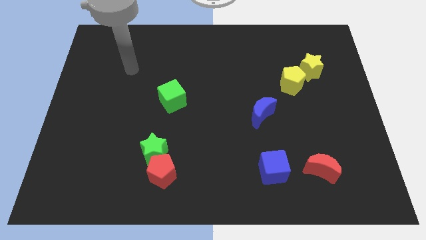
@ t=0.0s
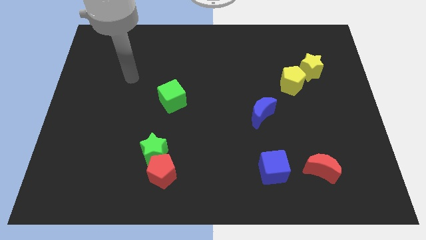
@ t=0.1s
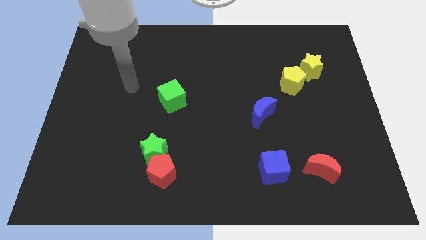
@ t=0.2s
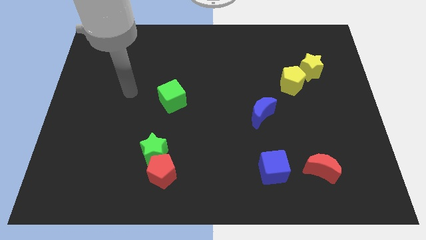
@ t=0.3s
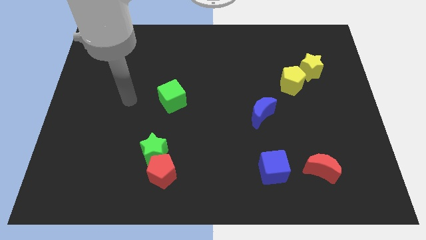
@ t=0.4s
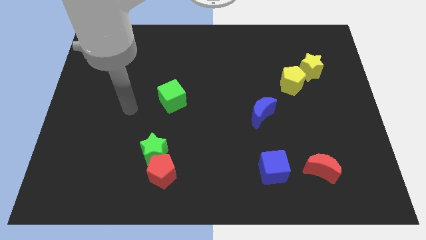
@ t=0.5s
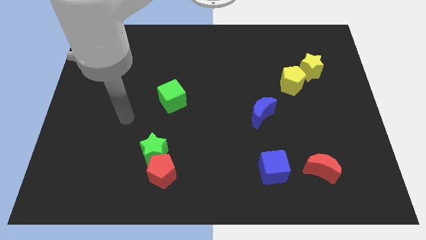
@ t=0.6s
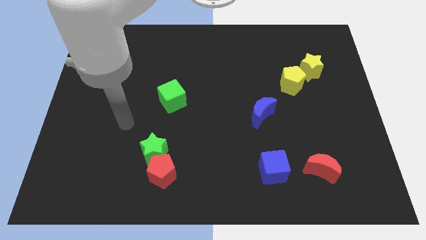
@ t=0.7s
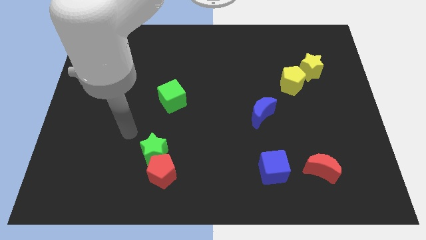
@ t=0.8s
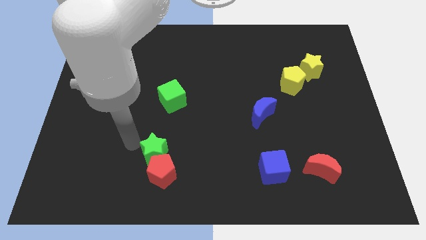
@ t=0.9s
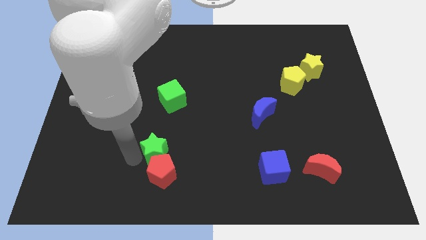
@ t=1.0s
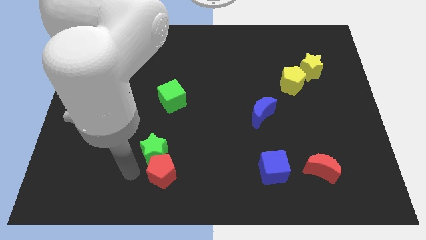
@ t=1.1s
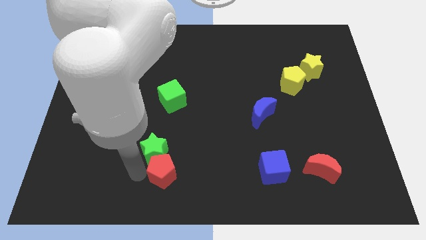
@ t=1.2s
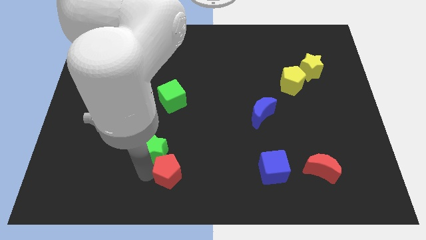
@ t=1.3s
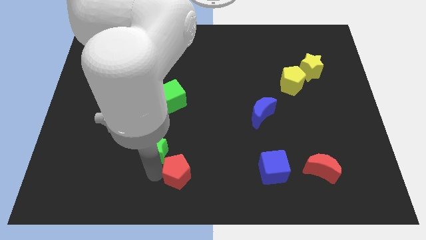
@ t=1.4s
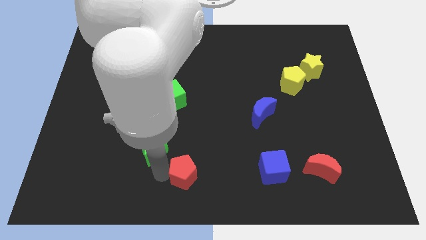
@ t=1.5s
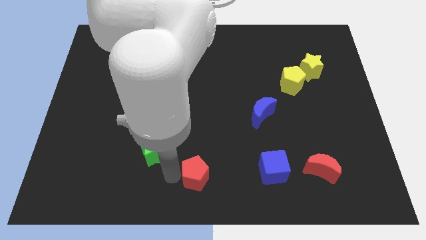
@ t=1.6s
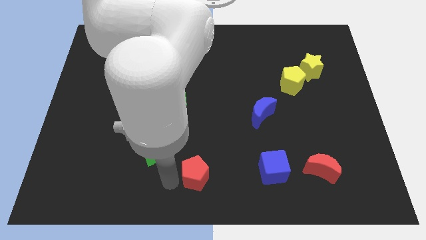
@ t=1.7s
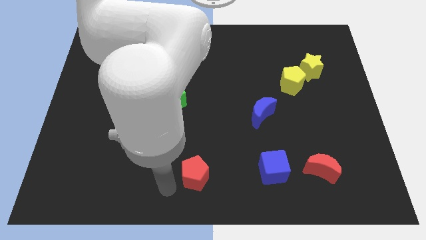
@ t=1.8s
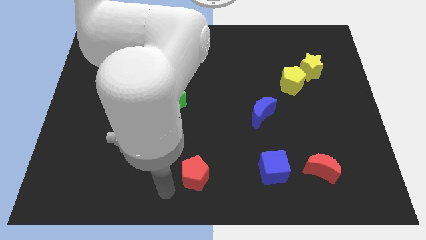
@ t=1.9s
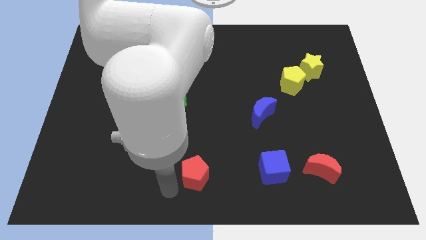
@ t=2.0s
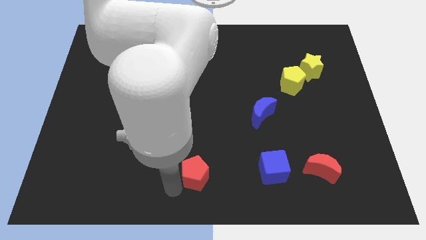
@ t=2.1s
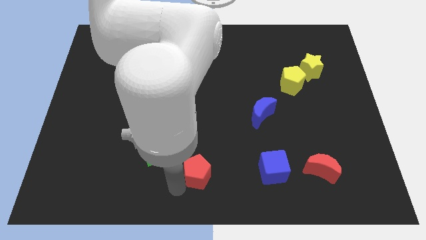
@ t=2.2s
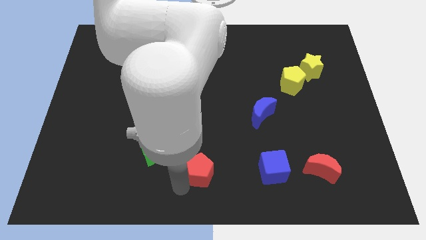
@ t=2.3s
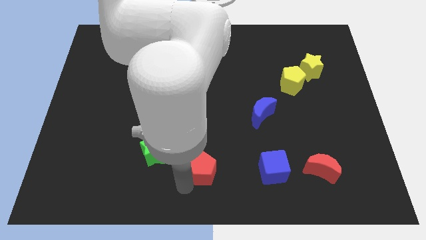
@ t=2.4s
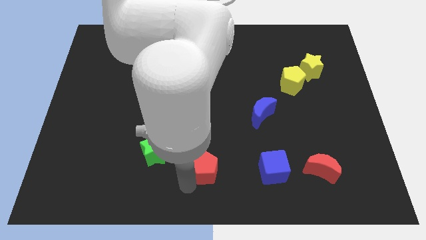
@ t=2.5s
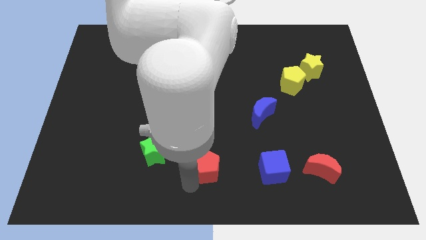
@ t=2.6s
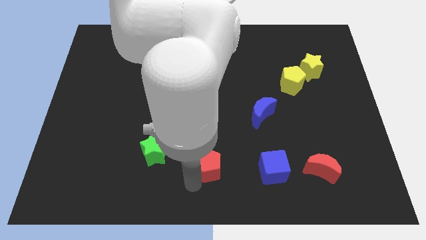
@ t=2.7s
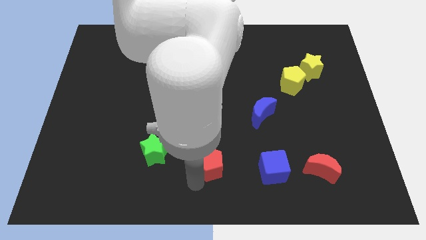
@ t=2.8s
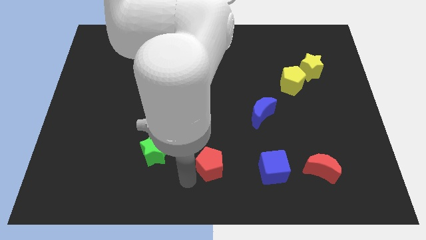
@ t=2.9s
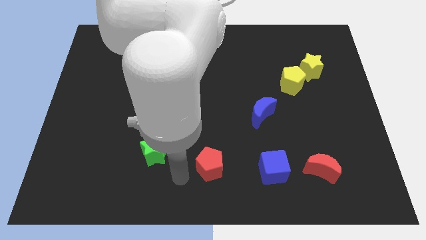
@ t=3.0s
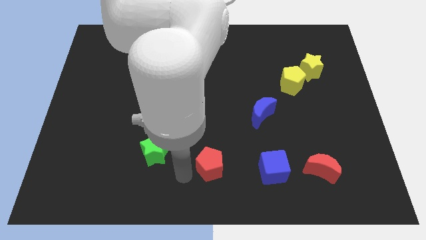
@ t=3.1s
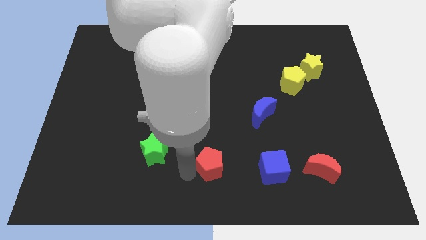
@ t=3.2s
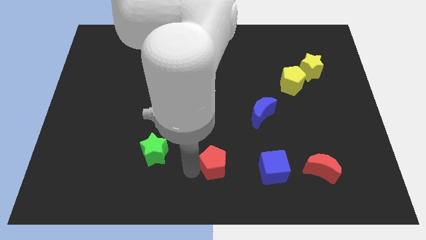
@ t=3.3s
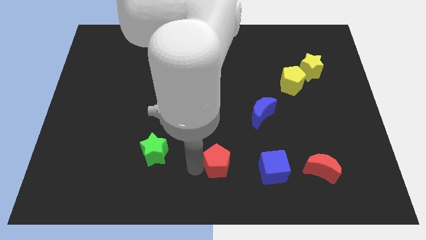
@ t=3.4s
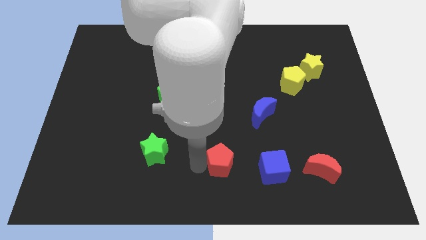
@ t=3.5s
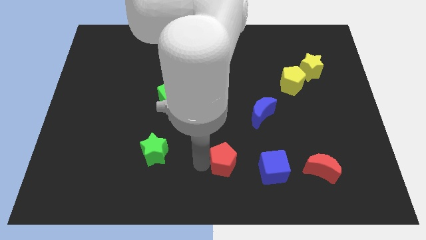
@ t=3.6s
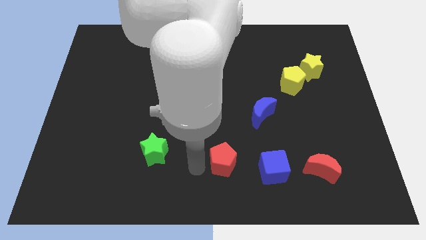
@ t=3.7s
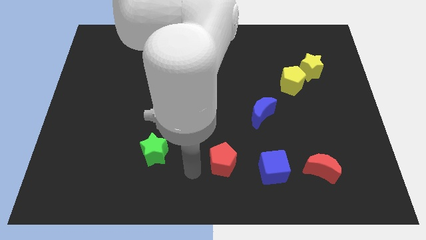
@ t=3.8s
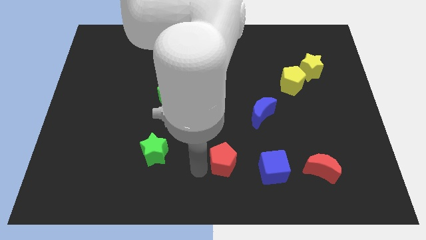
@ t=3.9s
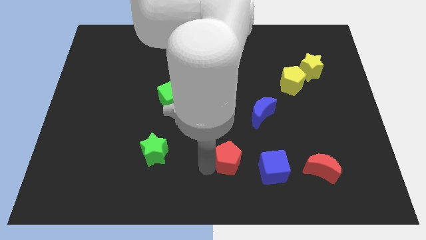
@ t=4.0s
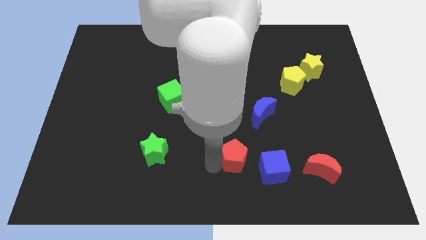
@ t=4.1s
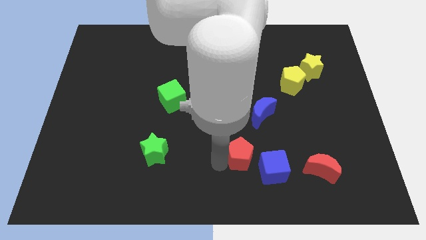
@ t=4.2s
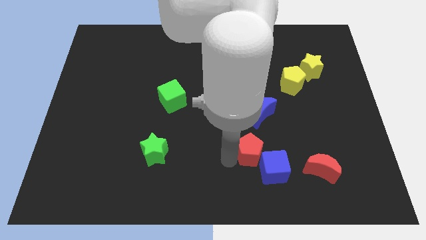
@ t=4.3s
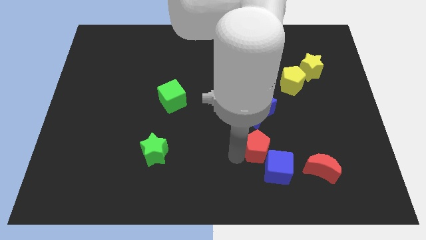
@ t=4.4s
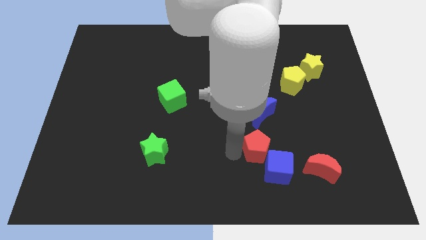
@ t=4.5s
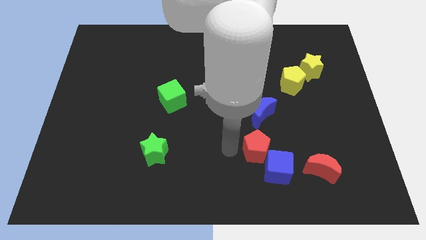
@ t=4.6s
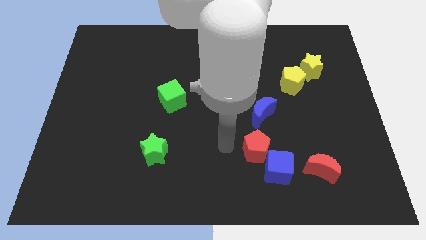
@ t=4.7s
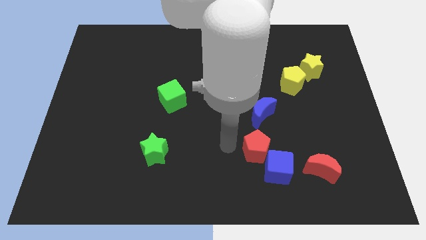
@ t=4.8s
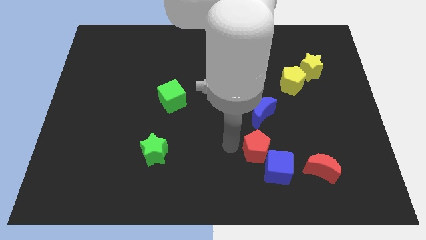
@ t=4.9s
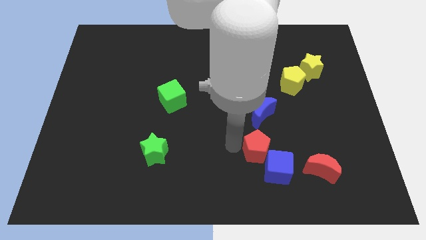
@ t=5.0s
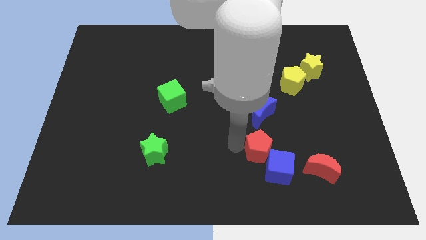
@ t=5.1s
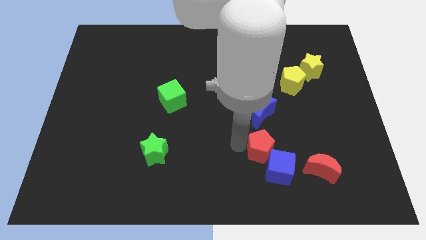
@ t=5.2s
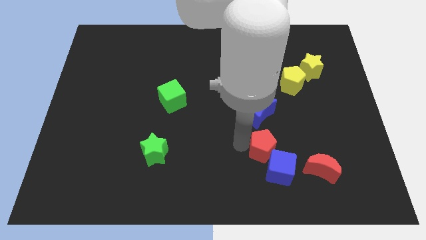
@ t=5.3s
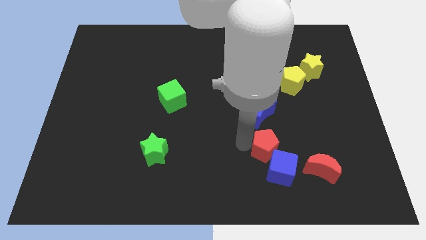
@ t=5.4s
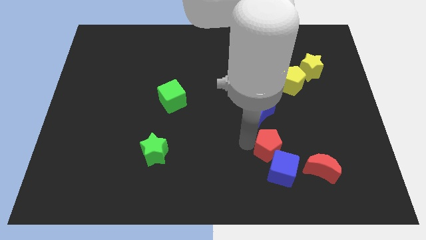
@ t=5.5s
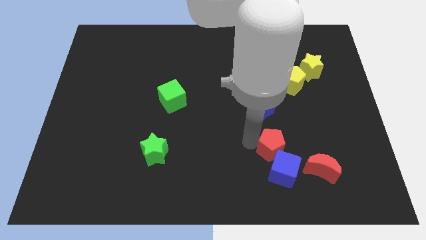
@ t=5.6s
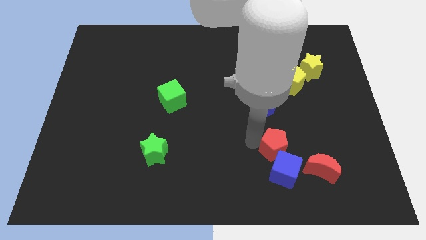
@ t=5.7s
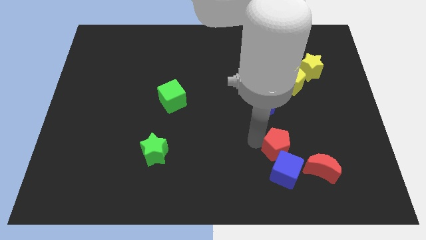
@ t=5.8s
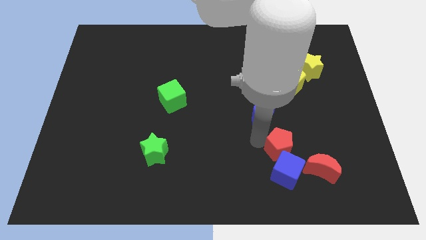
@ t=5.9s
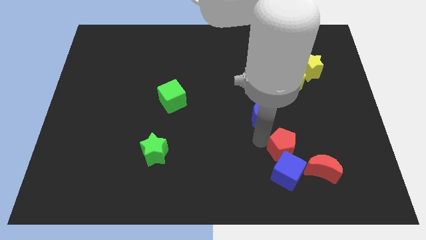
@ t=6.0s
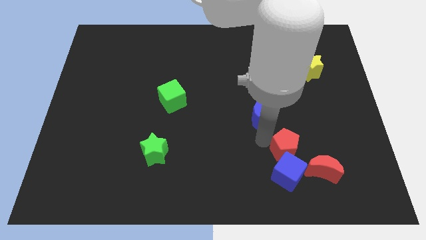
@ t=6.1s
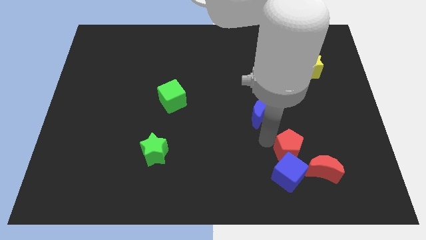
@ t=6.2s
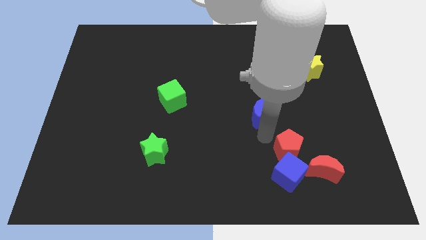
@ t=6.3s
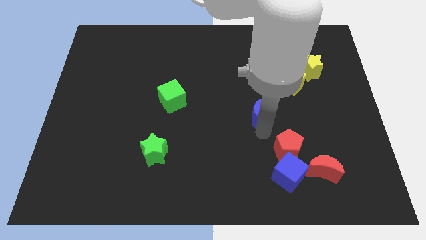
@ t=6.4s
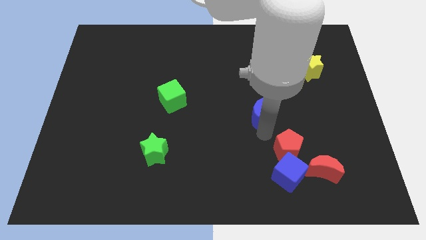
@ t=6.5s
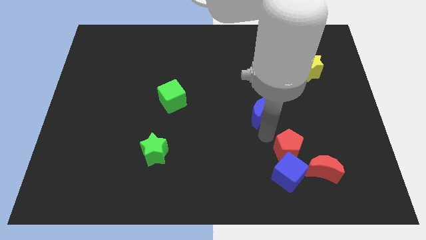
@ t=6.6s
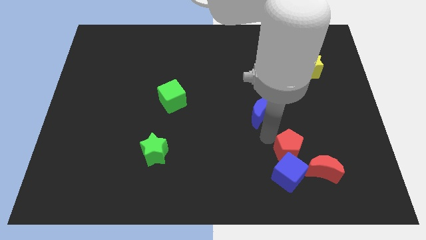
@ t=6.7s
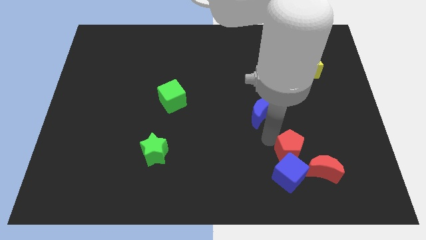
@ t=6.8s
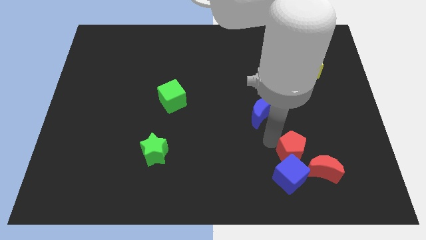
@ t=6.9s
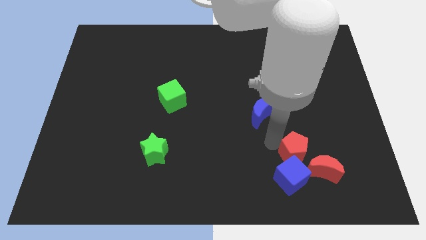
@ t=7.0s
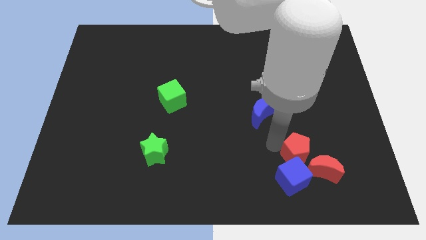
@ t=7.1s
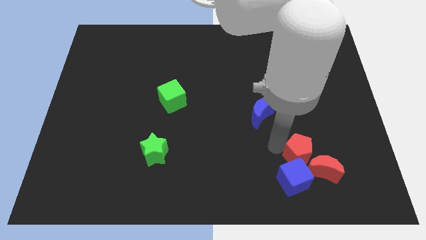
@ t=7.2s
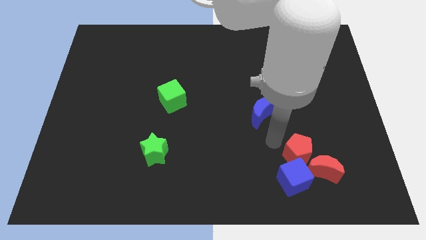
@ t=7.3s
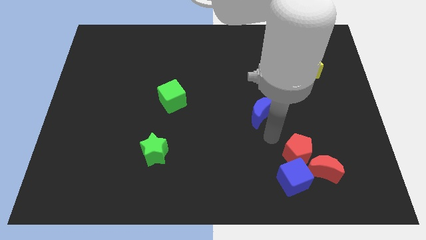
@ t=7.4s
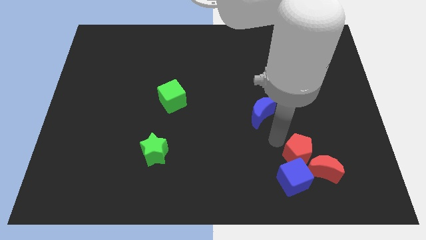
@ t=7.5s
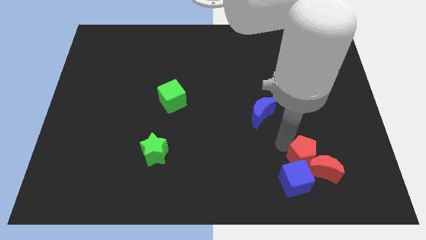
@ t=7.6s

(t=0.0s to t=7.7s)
move the red pentagon close to the red moon
